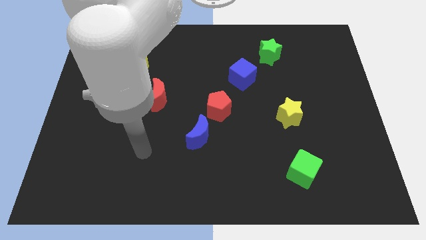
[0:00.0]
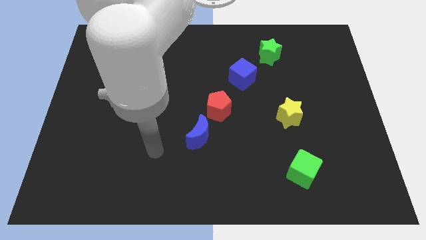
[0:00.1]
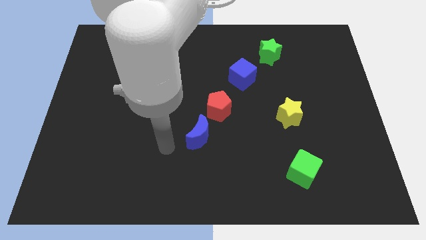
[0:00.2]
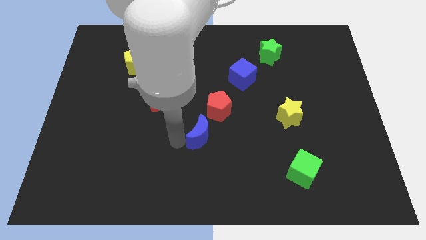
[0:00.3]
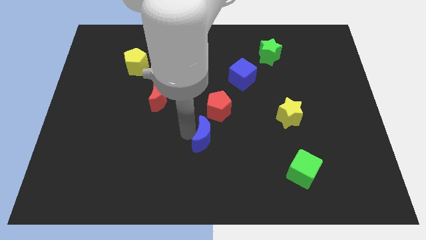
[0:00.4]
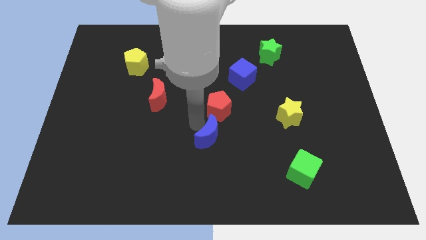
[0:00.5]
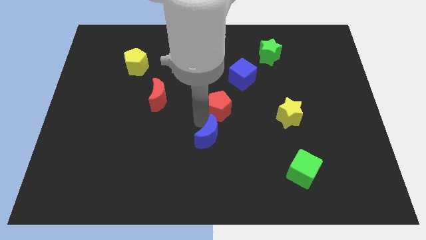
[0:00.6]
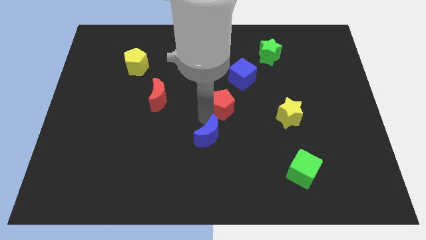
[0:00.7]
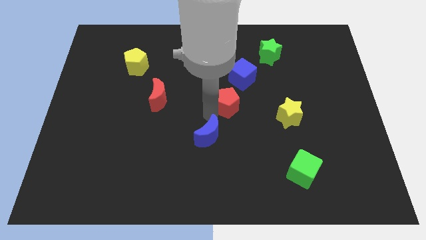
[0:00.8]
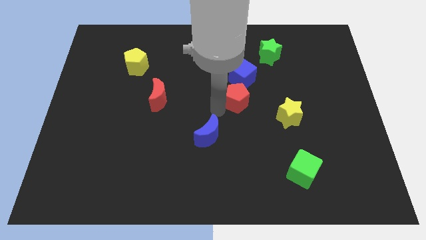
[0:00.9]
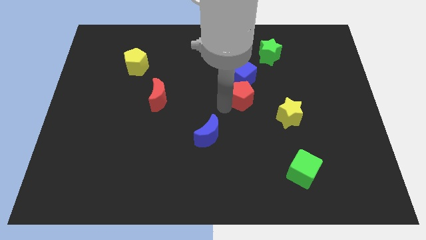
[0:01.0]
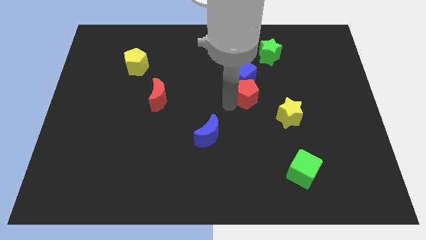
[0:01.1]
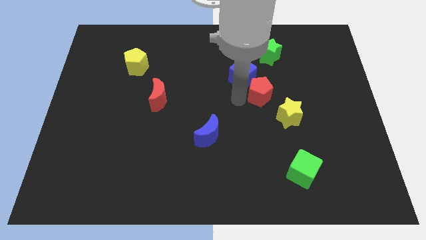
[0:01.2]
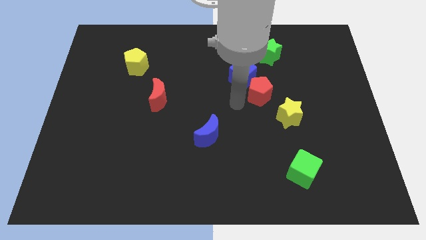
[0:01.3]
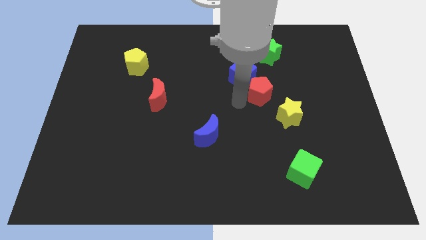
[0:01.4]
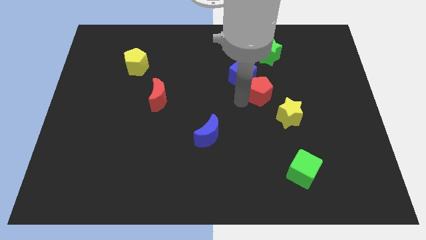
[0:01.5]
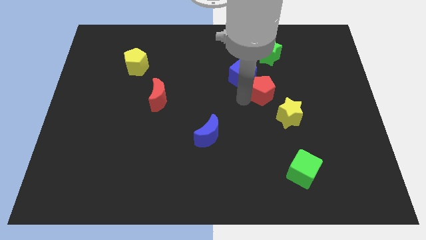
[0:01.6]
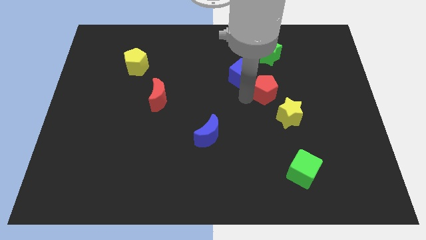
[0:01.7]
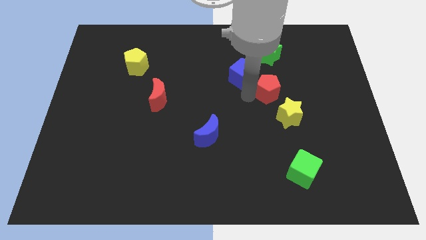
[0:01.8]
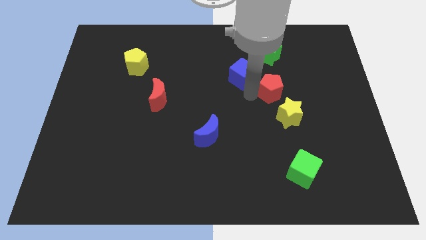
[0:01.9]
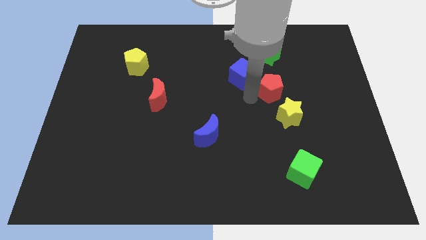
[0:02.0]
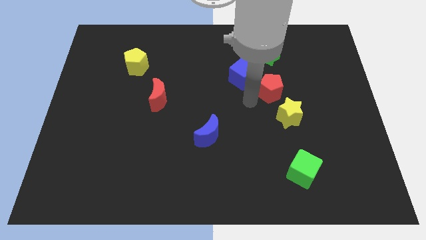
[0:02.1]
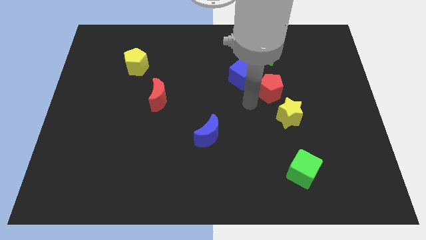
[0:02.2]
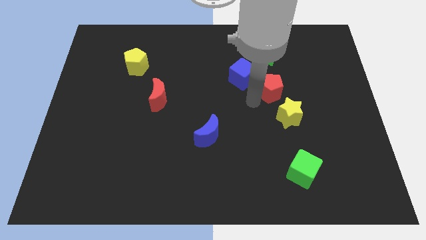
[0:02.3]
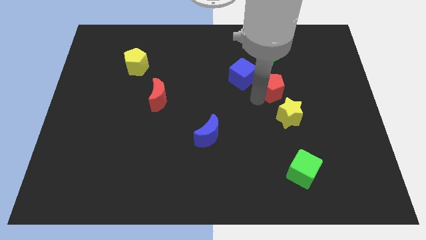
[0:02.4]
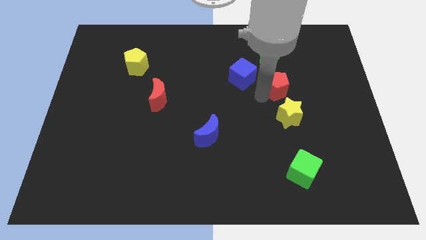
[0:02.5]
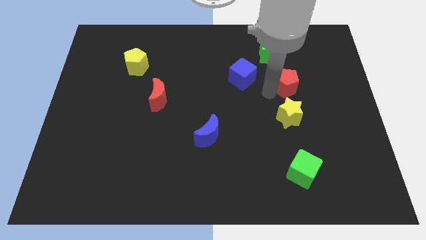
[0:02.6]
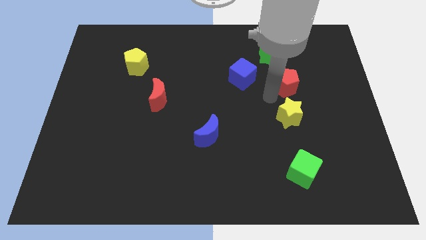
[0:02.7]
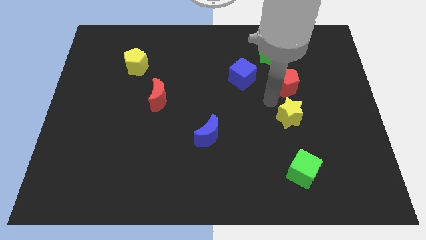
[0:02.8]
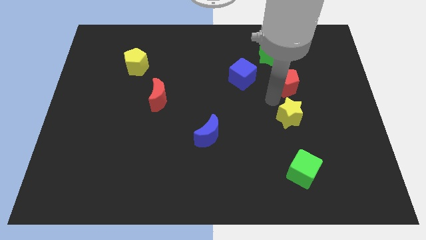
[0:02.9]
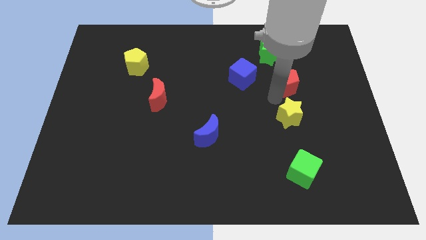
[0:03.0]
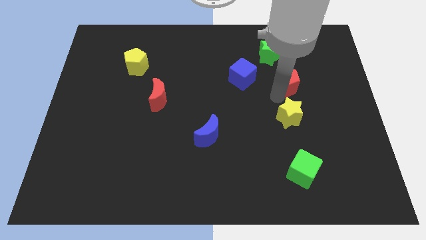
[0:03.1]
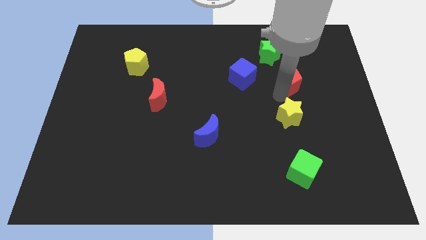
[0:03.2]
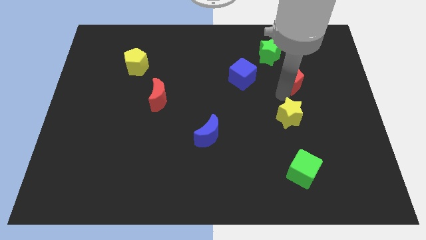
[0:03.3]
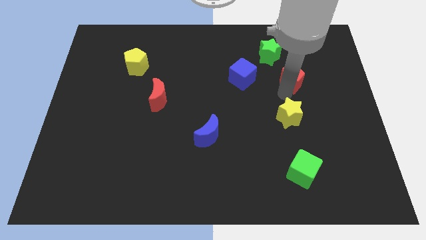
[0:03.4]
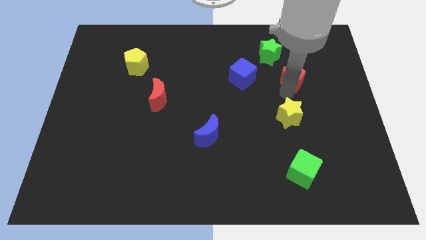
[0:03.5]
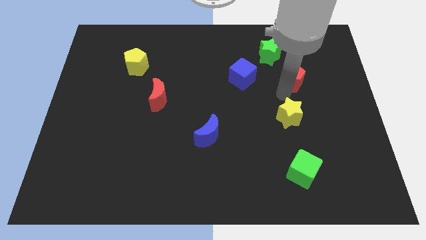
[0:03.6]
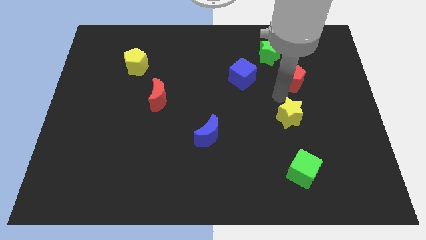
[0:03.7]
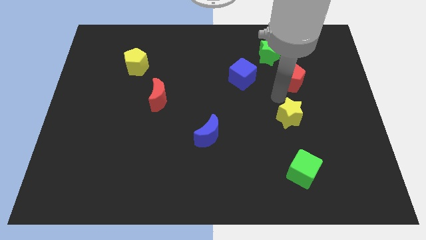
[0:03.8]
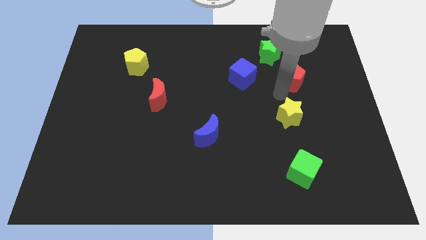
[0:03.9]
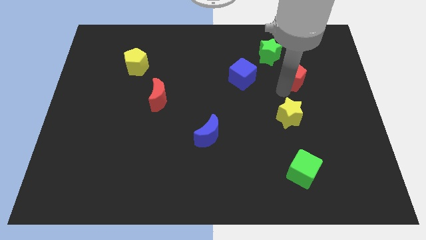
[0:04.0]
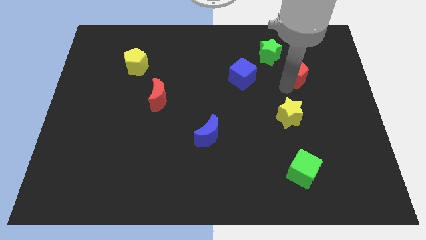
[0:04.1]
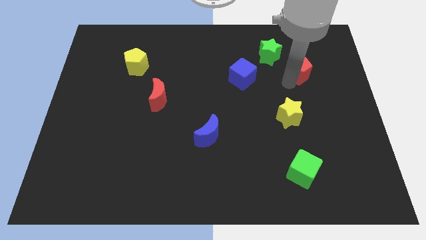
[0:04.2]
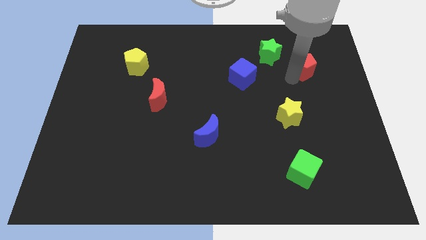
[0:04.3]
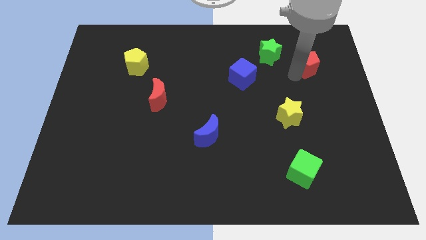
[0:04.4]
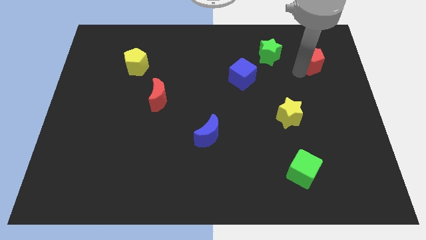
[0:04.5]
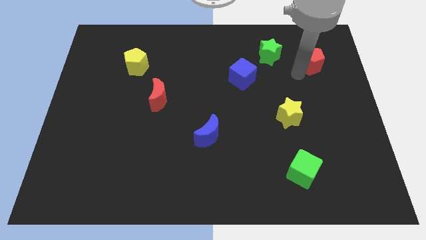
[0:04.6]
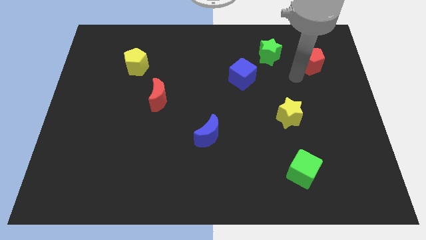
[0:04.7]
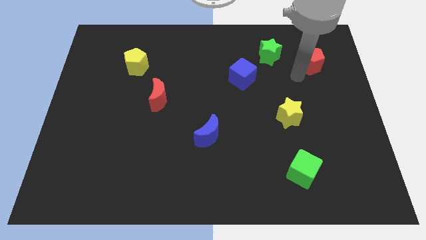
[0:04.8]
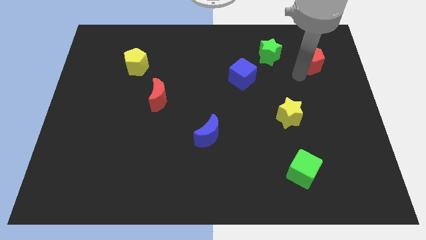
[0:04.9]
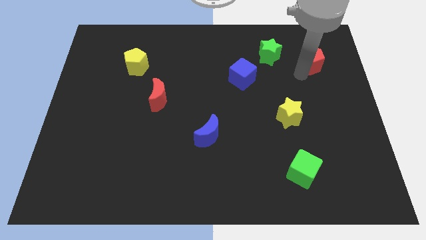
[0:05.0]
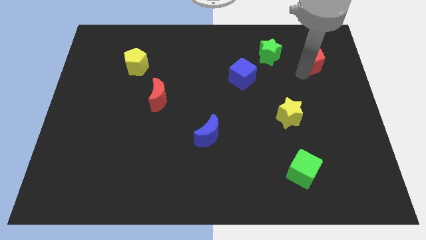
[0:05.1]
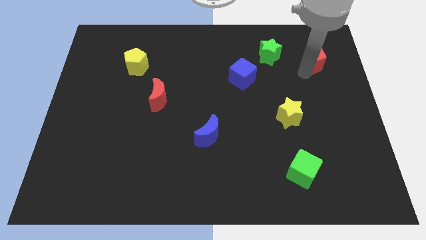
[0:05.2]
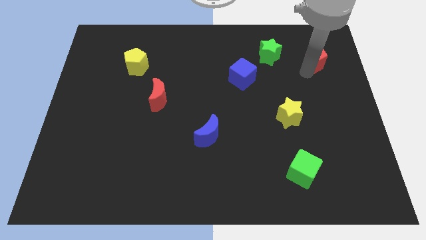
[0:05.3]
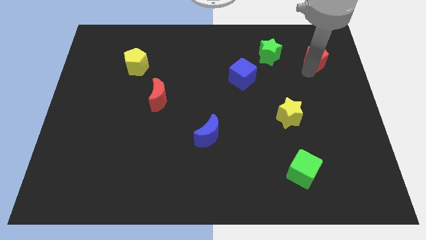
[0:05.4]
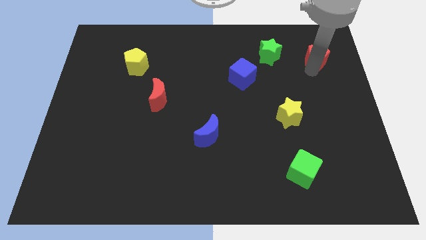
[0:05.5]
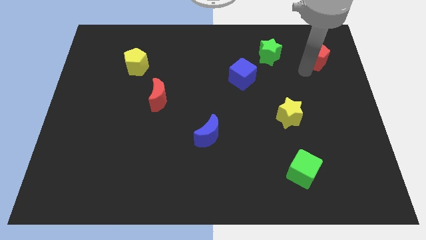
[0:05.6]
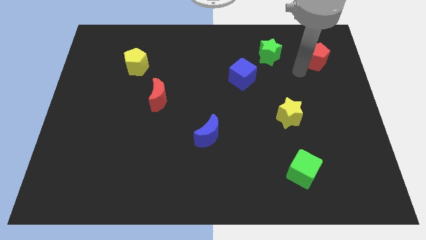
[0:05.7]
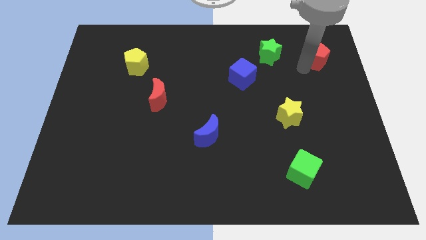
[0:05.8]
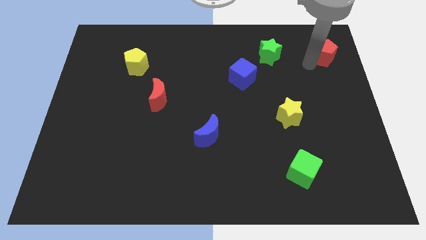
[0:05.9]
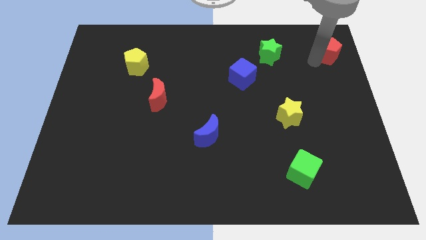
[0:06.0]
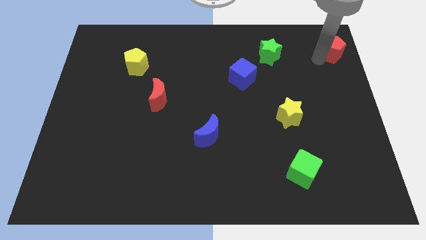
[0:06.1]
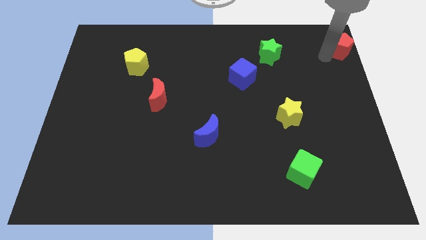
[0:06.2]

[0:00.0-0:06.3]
move the red pentagon to the top right

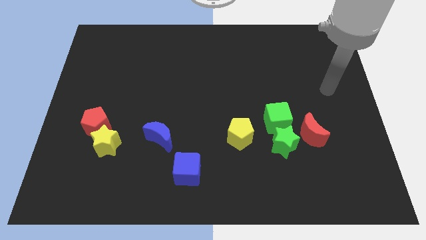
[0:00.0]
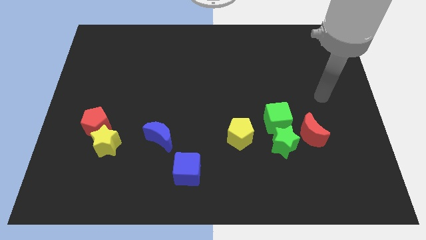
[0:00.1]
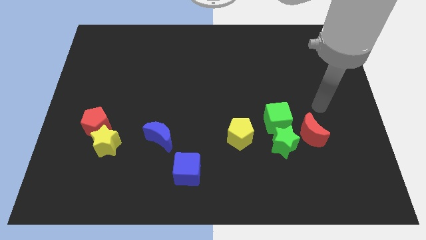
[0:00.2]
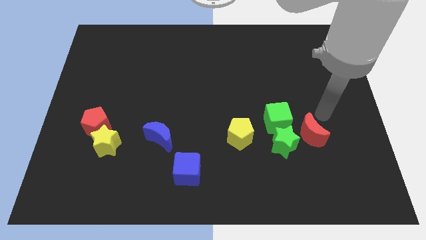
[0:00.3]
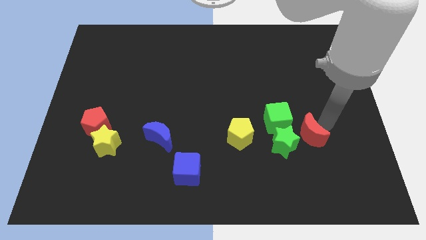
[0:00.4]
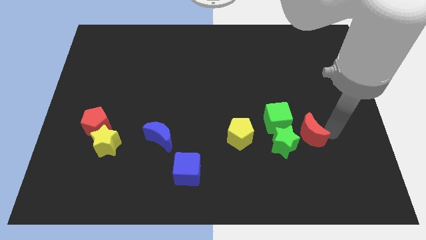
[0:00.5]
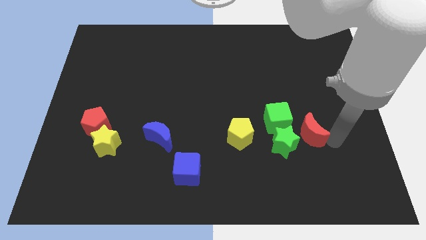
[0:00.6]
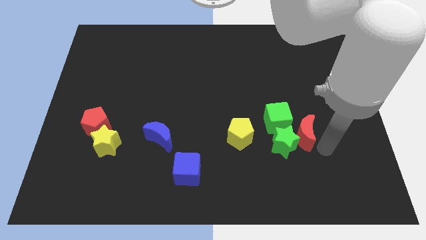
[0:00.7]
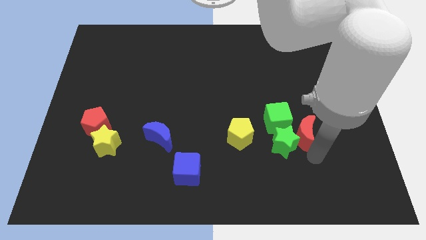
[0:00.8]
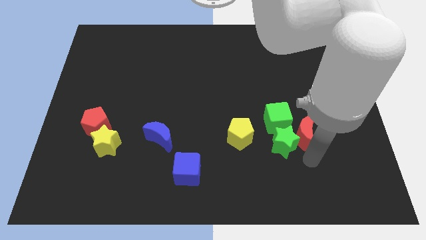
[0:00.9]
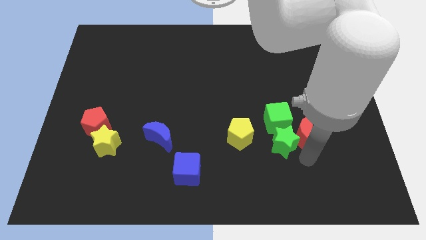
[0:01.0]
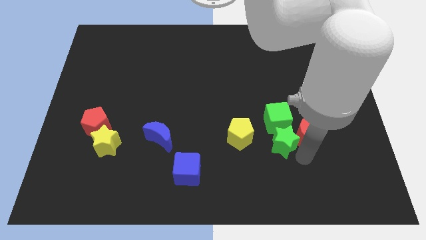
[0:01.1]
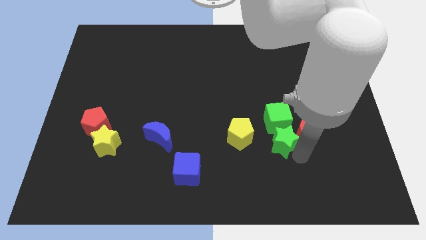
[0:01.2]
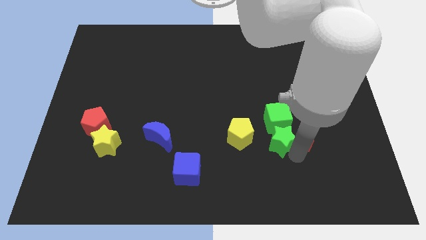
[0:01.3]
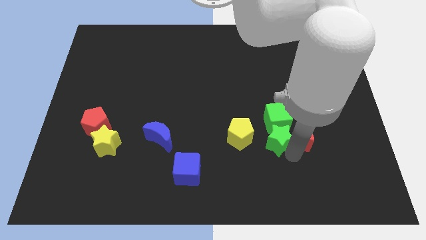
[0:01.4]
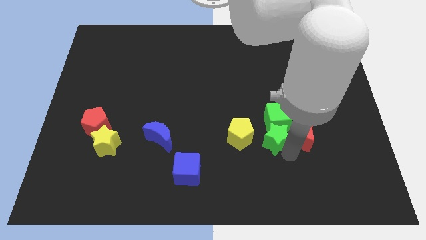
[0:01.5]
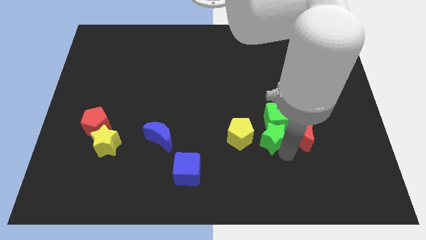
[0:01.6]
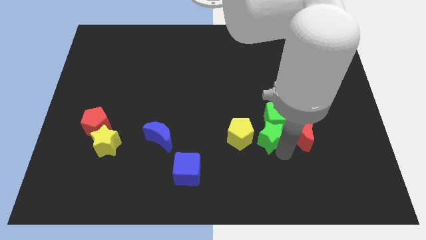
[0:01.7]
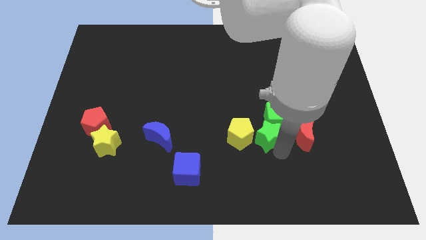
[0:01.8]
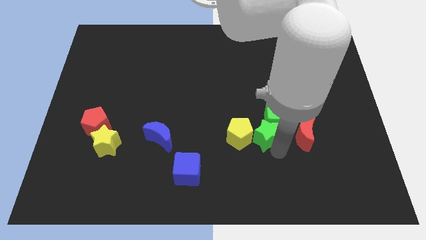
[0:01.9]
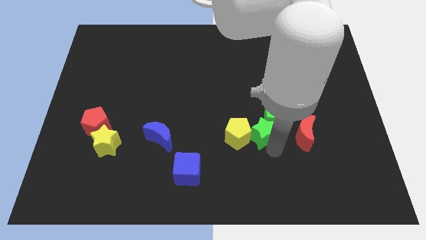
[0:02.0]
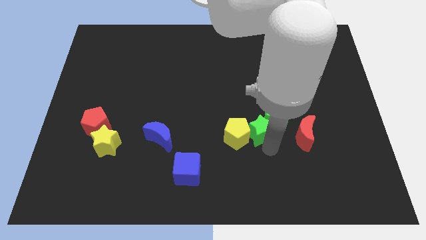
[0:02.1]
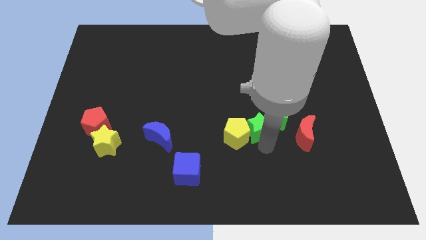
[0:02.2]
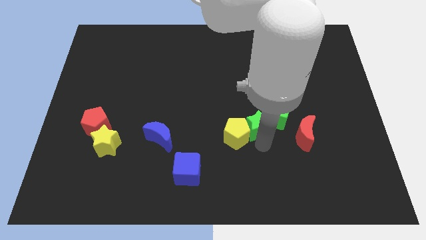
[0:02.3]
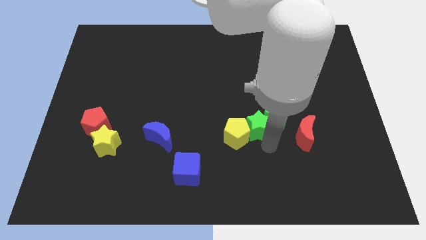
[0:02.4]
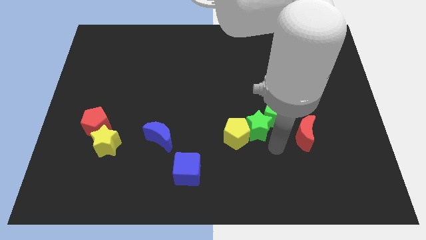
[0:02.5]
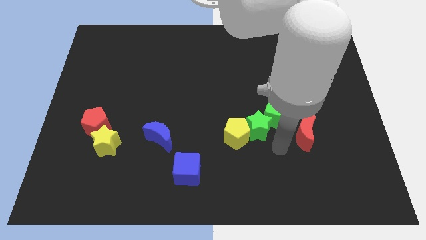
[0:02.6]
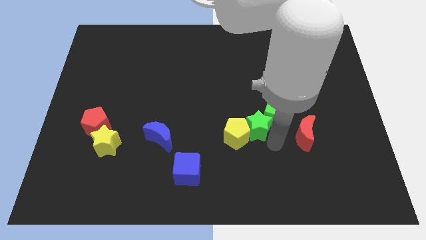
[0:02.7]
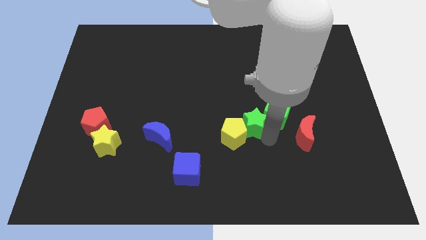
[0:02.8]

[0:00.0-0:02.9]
slide the green star to the center of the board
